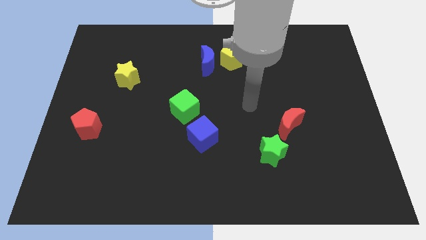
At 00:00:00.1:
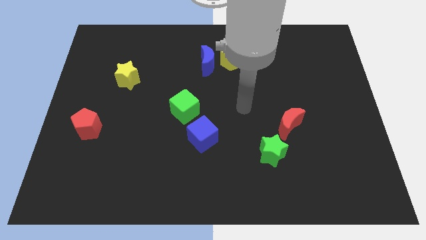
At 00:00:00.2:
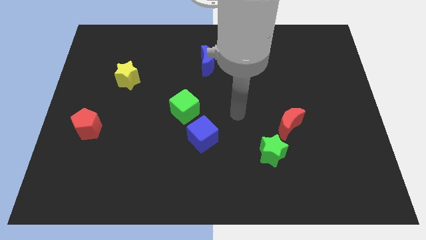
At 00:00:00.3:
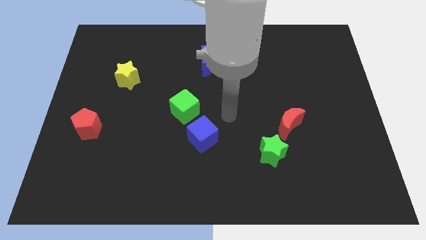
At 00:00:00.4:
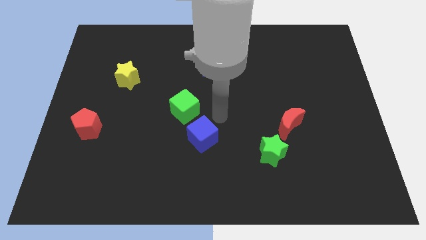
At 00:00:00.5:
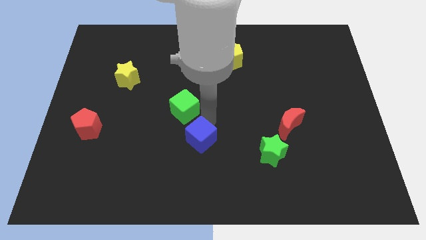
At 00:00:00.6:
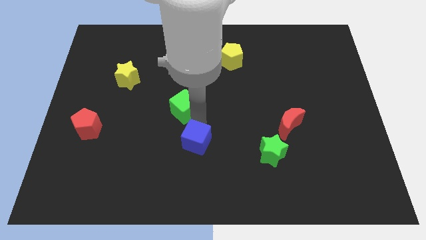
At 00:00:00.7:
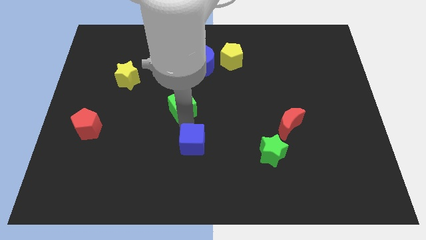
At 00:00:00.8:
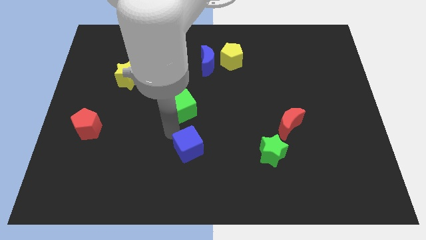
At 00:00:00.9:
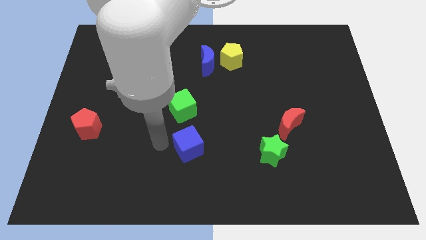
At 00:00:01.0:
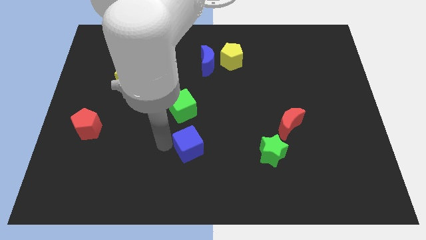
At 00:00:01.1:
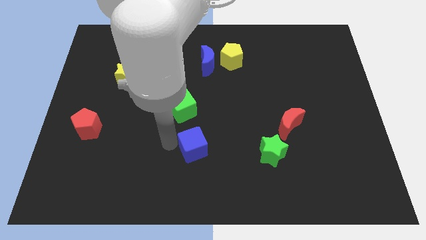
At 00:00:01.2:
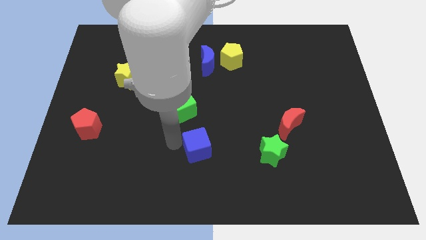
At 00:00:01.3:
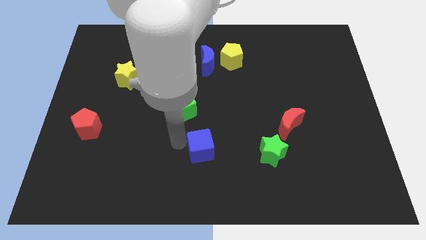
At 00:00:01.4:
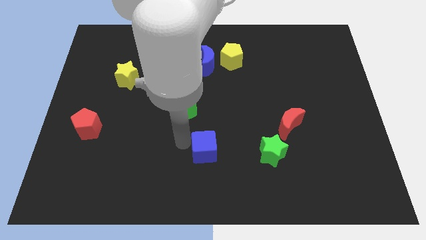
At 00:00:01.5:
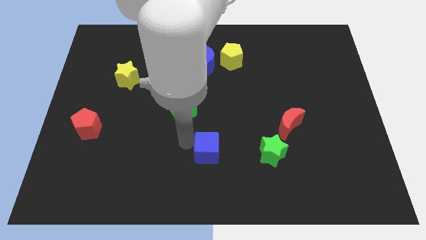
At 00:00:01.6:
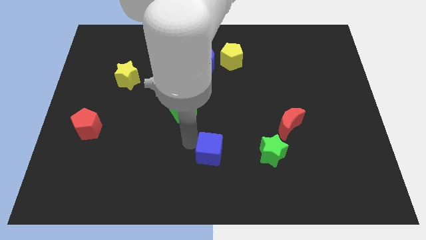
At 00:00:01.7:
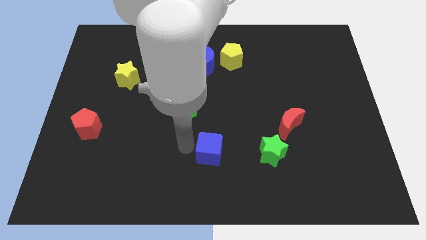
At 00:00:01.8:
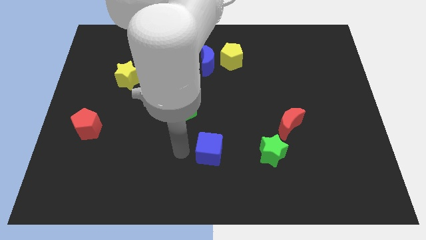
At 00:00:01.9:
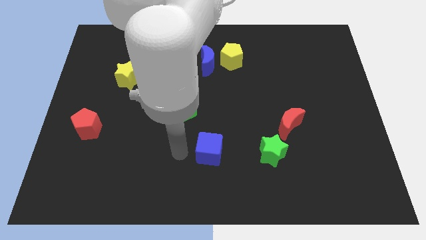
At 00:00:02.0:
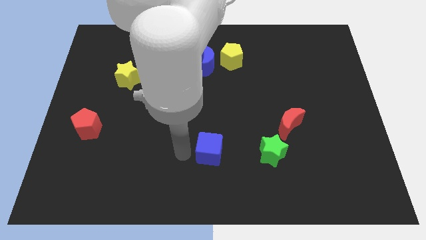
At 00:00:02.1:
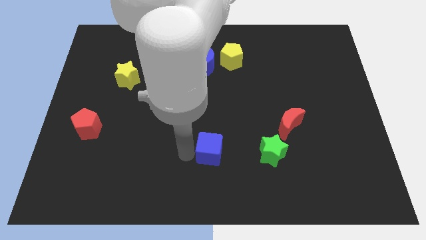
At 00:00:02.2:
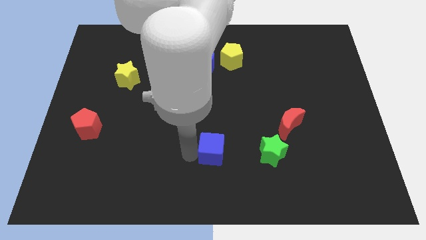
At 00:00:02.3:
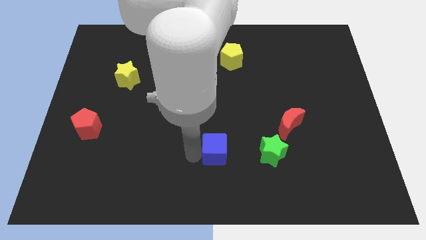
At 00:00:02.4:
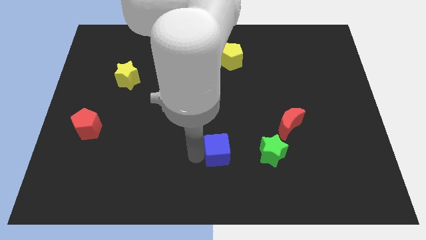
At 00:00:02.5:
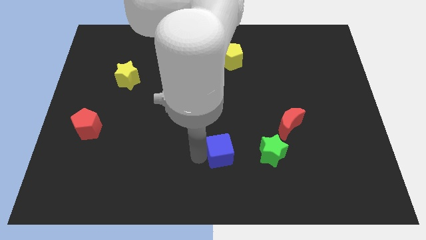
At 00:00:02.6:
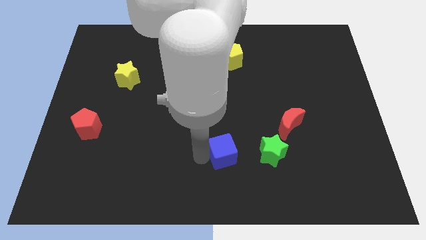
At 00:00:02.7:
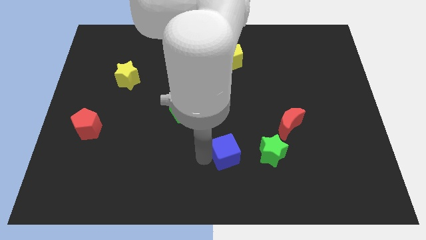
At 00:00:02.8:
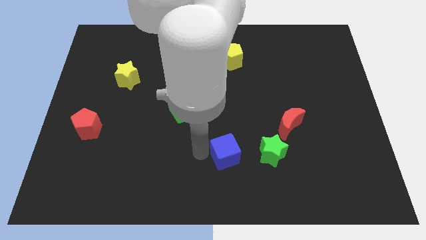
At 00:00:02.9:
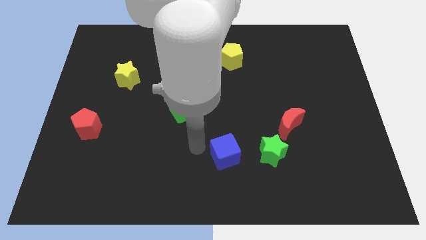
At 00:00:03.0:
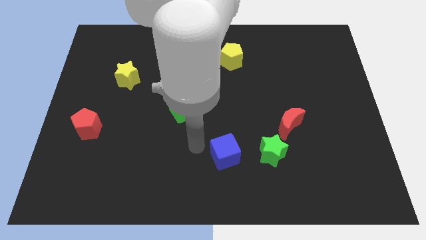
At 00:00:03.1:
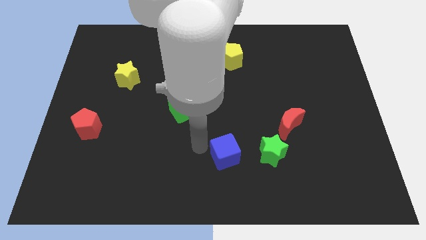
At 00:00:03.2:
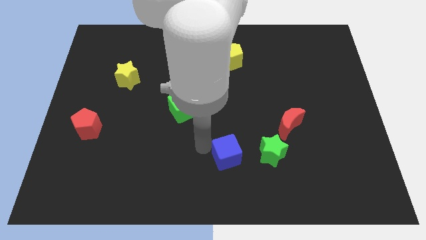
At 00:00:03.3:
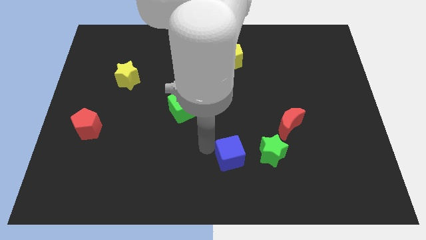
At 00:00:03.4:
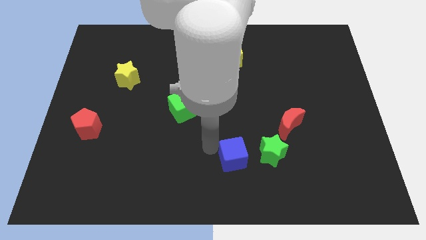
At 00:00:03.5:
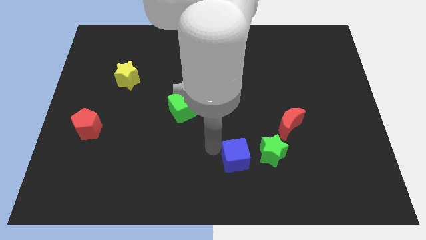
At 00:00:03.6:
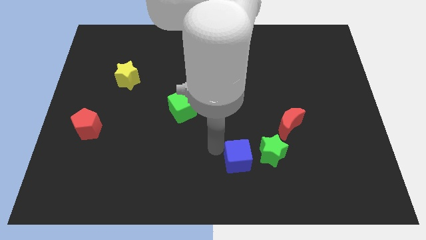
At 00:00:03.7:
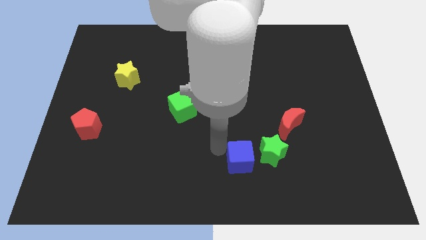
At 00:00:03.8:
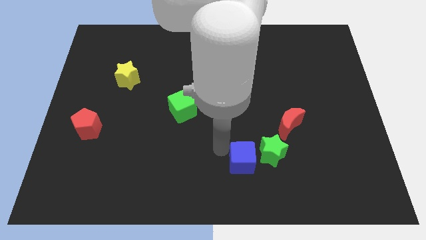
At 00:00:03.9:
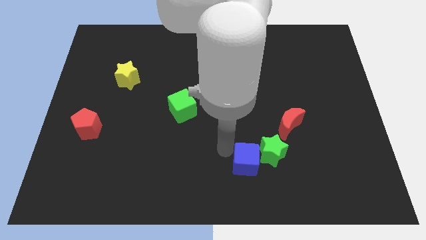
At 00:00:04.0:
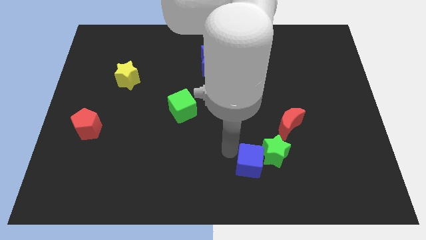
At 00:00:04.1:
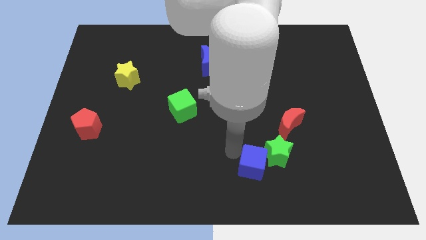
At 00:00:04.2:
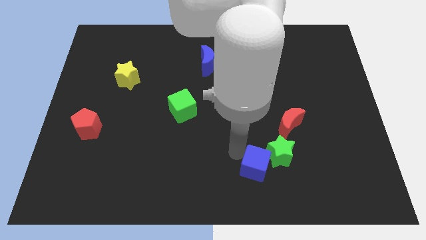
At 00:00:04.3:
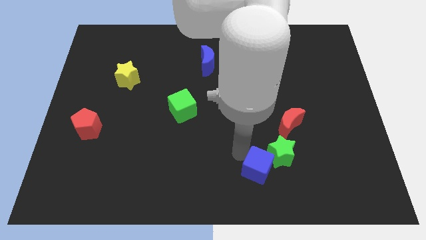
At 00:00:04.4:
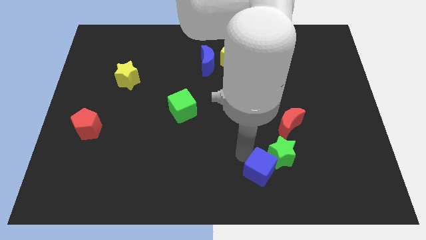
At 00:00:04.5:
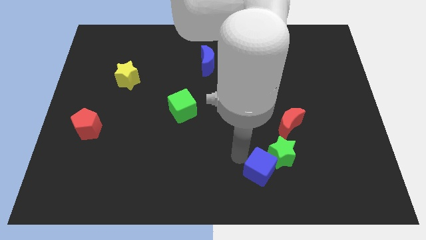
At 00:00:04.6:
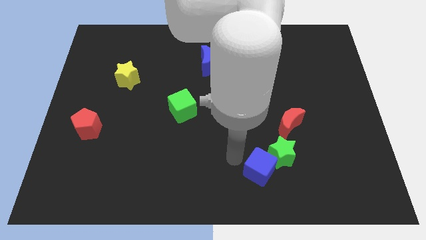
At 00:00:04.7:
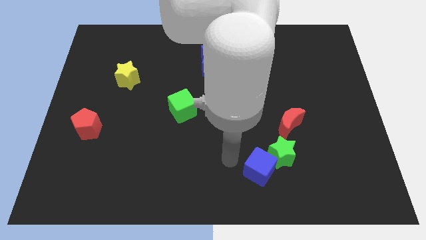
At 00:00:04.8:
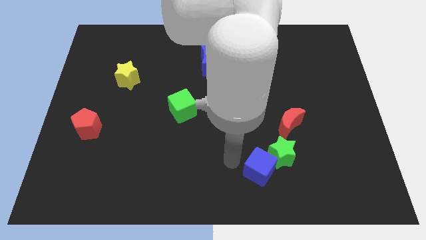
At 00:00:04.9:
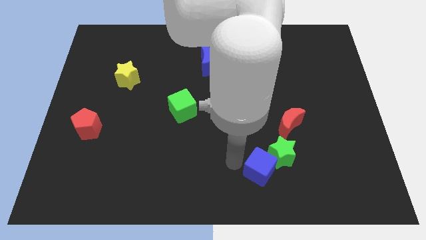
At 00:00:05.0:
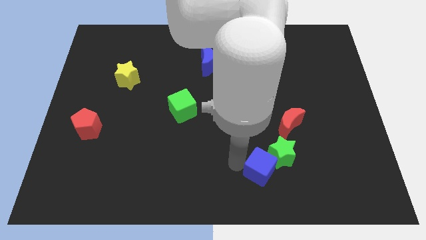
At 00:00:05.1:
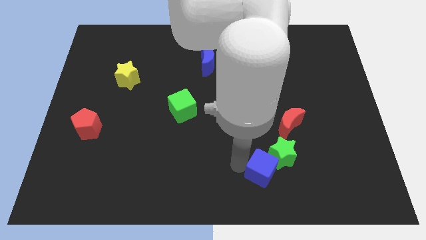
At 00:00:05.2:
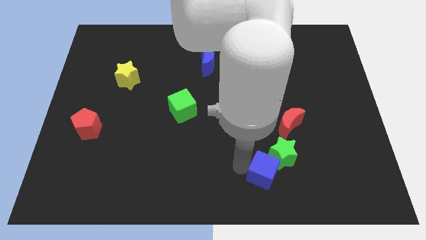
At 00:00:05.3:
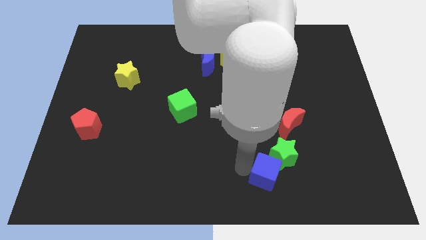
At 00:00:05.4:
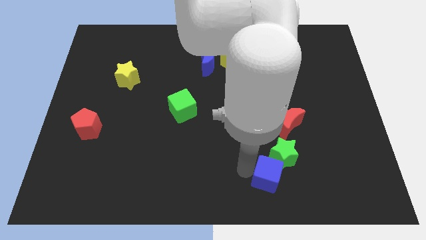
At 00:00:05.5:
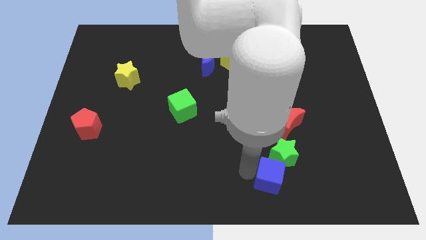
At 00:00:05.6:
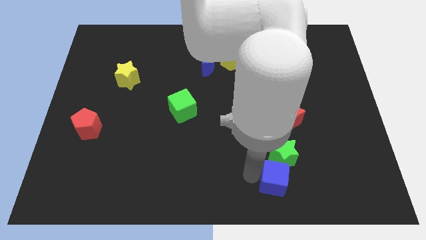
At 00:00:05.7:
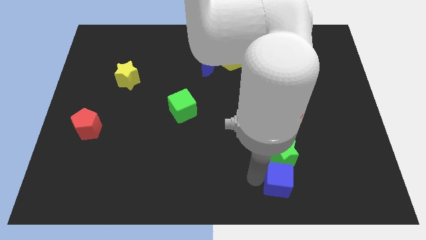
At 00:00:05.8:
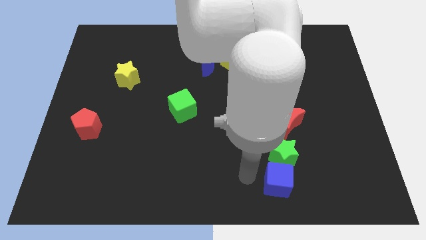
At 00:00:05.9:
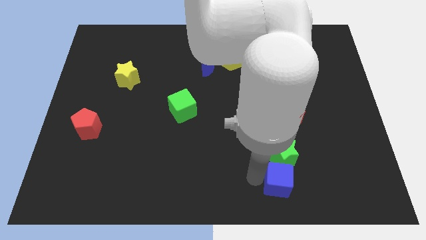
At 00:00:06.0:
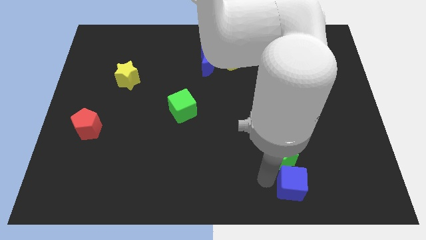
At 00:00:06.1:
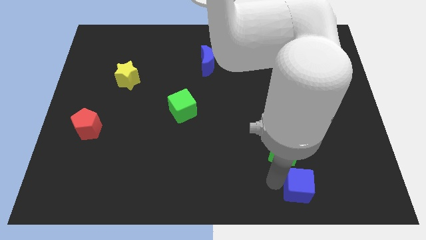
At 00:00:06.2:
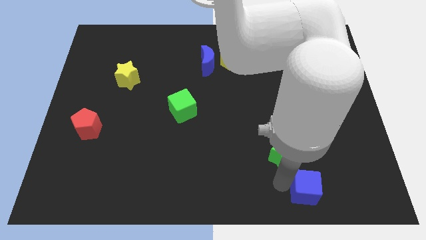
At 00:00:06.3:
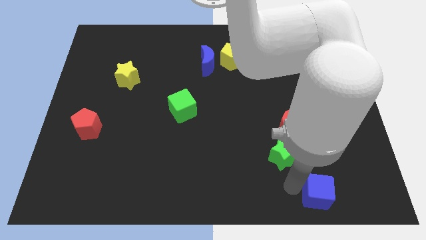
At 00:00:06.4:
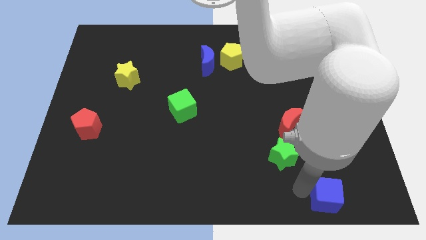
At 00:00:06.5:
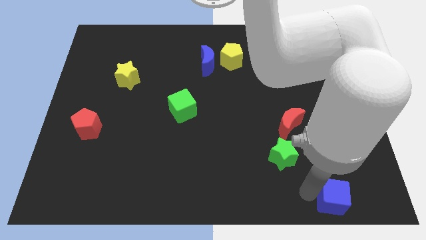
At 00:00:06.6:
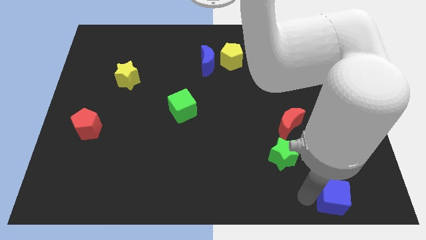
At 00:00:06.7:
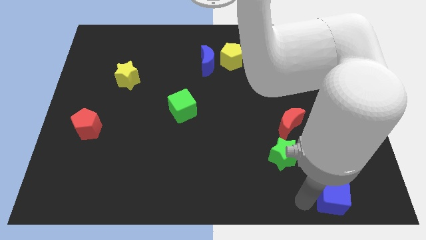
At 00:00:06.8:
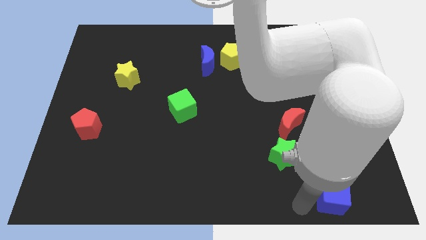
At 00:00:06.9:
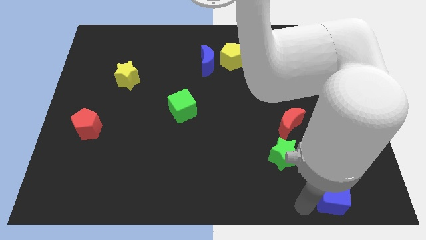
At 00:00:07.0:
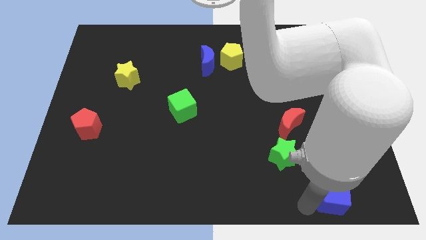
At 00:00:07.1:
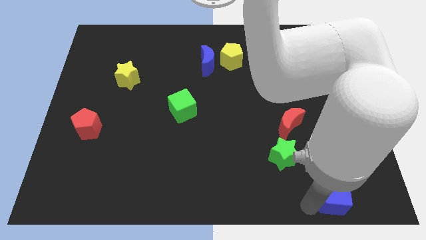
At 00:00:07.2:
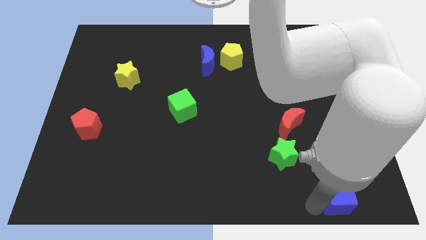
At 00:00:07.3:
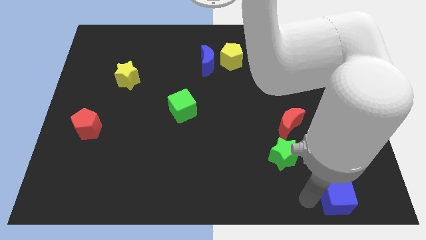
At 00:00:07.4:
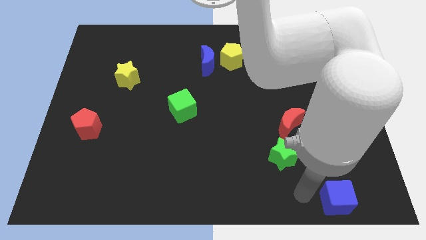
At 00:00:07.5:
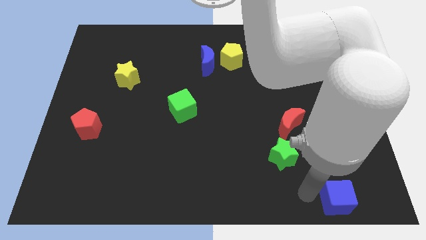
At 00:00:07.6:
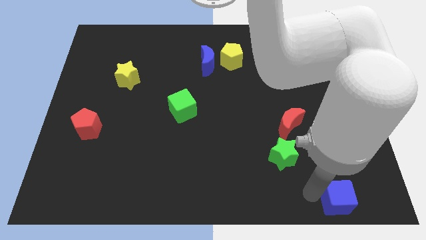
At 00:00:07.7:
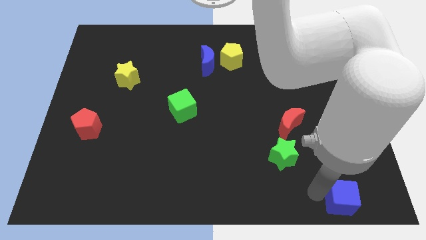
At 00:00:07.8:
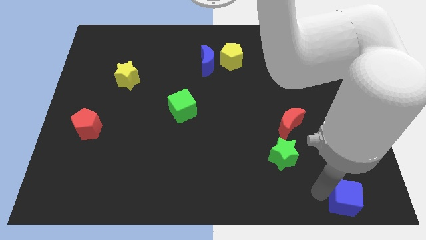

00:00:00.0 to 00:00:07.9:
move the blue cube to the lower right corner
